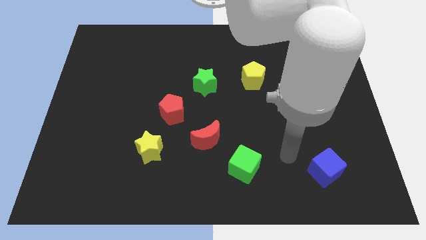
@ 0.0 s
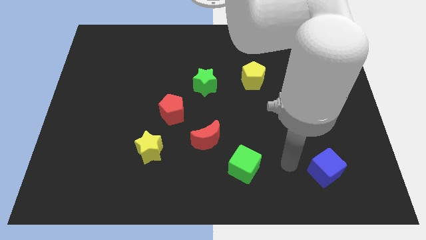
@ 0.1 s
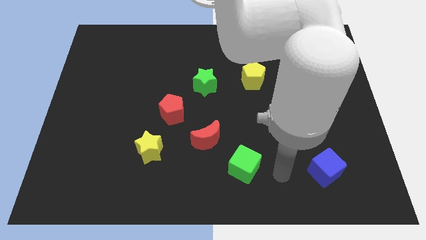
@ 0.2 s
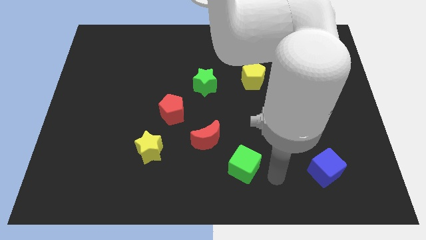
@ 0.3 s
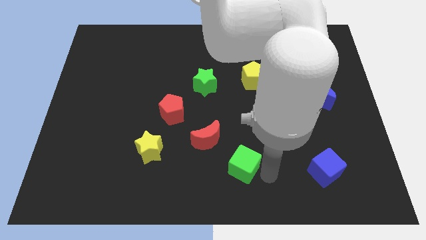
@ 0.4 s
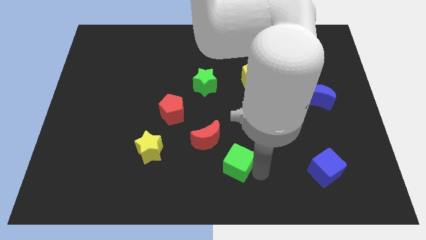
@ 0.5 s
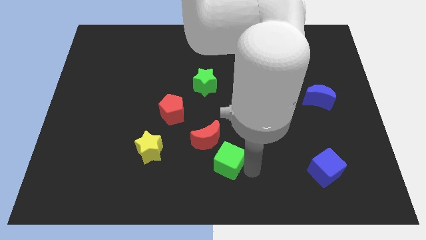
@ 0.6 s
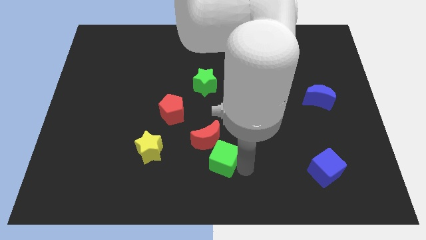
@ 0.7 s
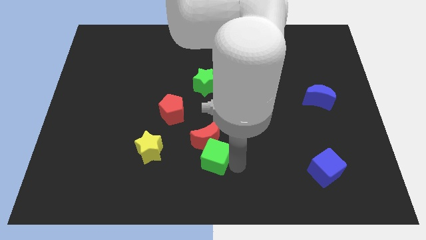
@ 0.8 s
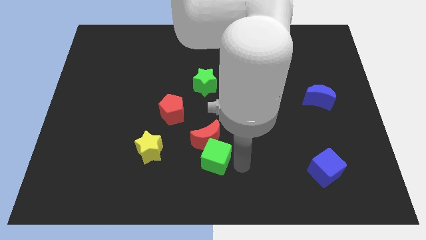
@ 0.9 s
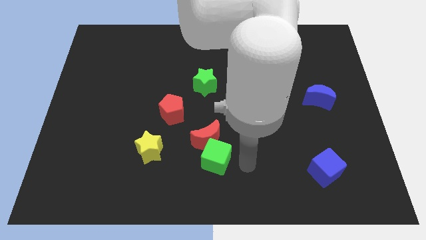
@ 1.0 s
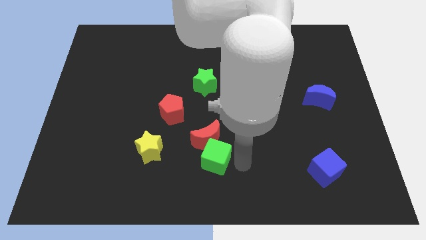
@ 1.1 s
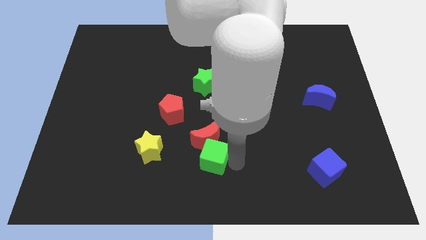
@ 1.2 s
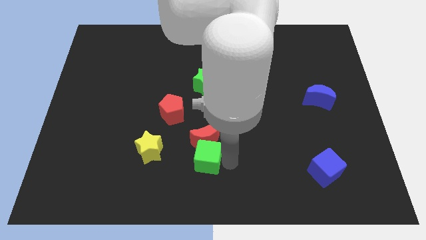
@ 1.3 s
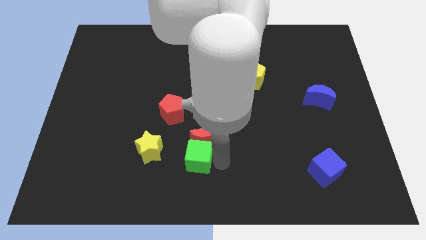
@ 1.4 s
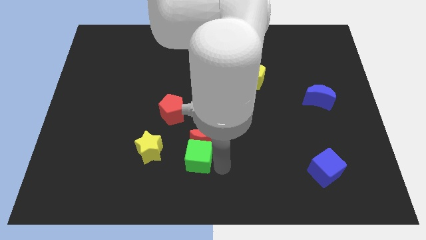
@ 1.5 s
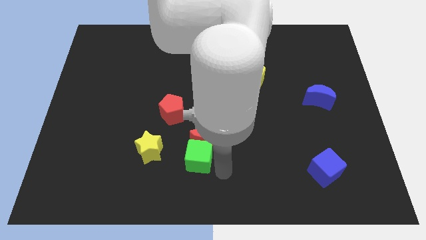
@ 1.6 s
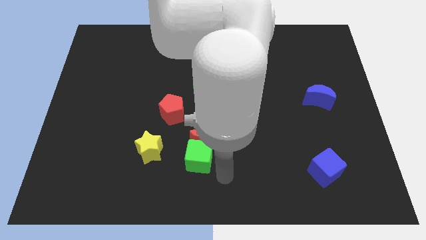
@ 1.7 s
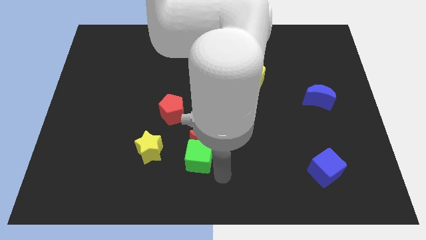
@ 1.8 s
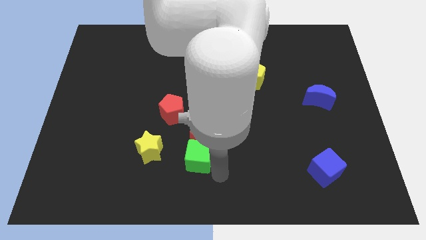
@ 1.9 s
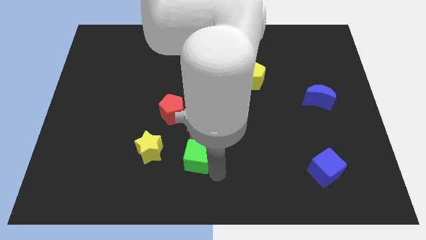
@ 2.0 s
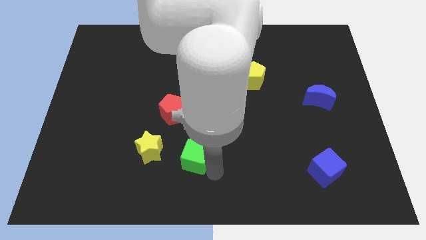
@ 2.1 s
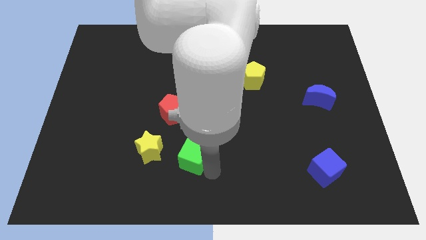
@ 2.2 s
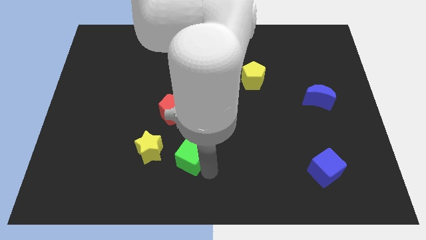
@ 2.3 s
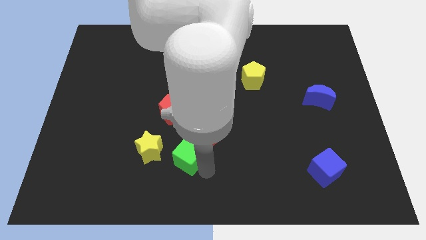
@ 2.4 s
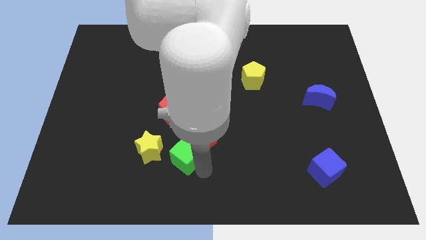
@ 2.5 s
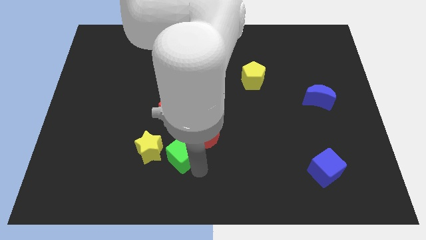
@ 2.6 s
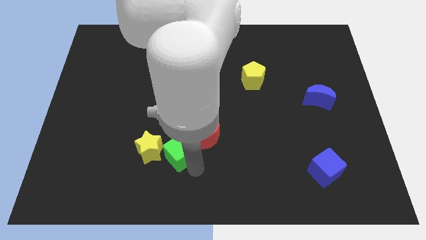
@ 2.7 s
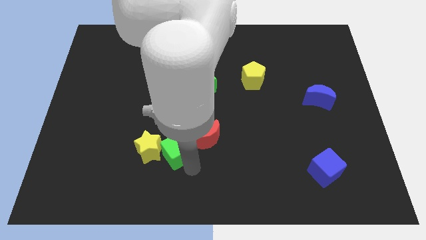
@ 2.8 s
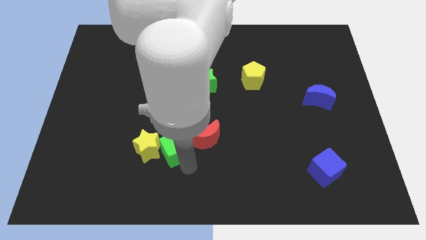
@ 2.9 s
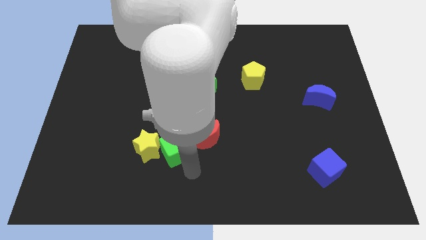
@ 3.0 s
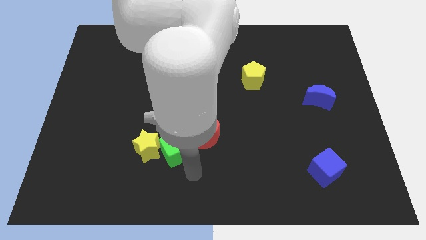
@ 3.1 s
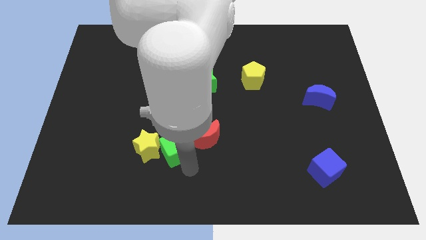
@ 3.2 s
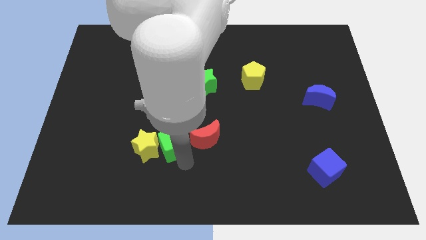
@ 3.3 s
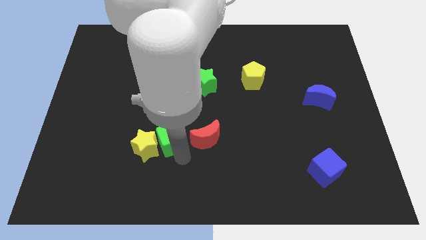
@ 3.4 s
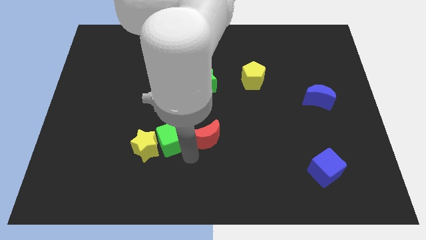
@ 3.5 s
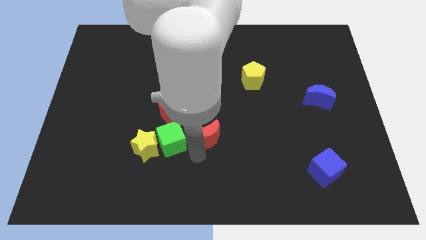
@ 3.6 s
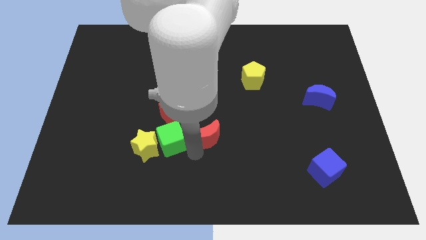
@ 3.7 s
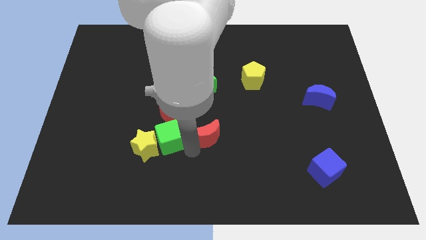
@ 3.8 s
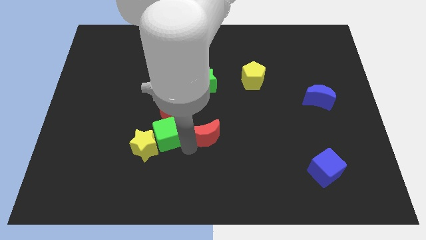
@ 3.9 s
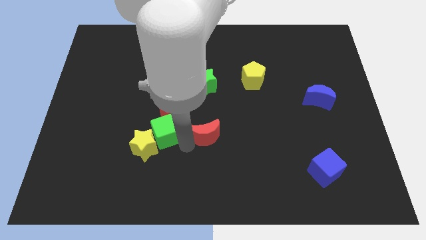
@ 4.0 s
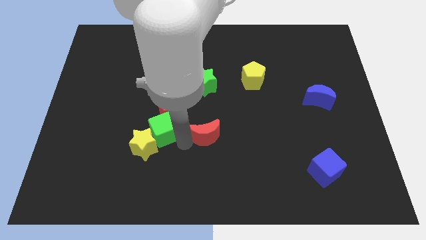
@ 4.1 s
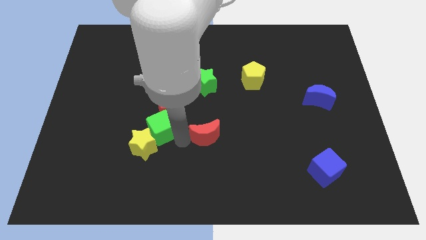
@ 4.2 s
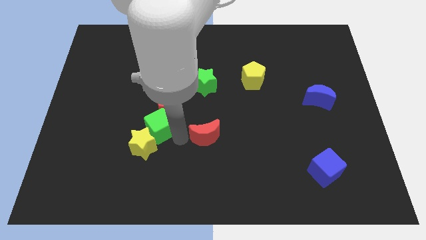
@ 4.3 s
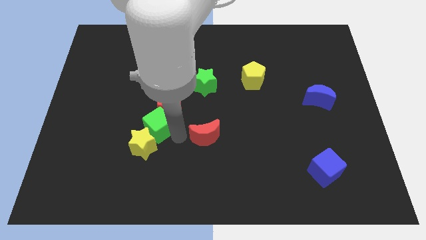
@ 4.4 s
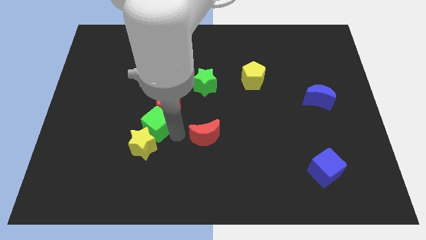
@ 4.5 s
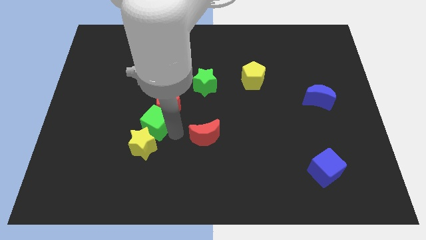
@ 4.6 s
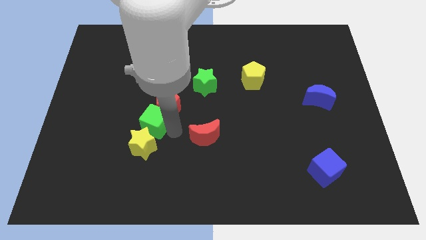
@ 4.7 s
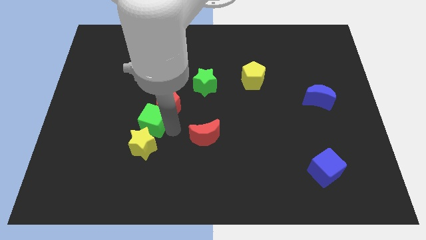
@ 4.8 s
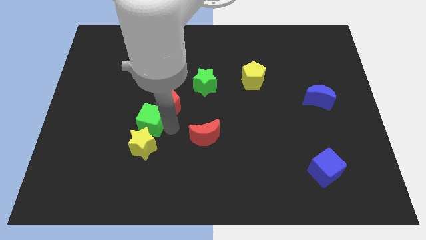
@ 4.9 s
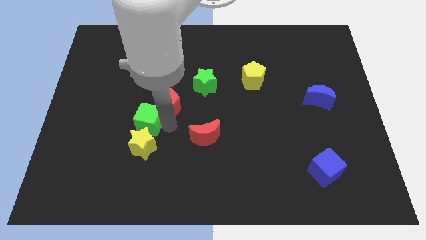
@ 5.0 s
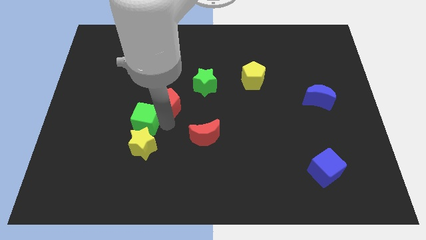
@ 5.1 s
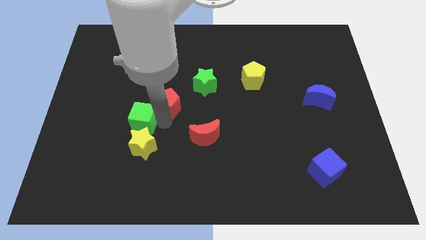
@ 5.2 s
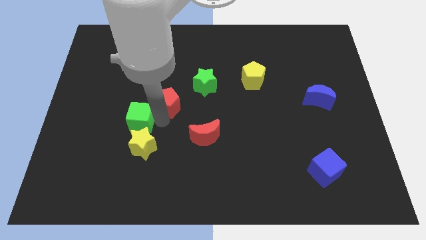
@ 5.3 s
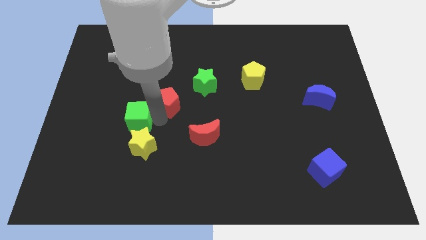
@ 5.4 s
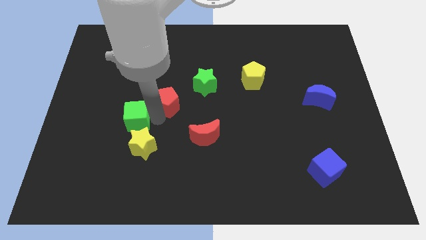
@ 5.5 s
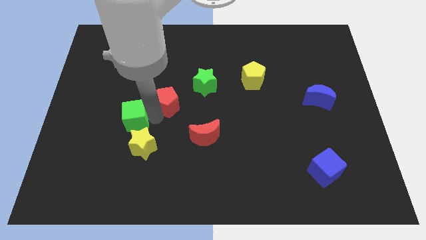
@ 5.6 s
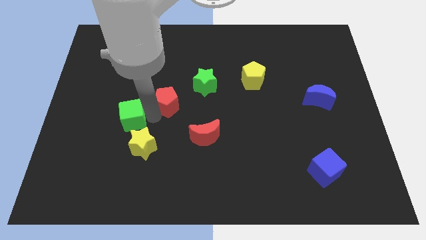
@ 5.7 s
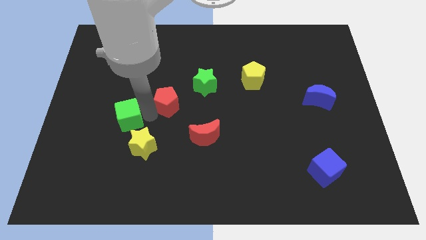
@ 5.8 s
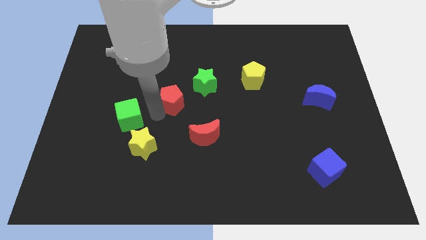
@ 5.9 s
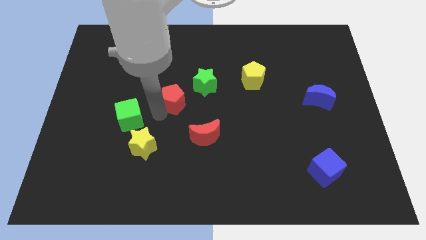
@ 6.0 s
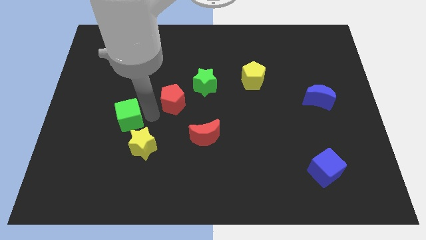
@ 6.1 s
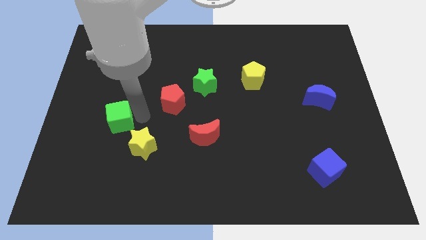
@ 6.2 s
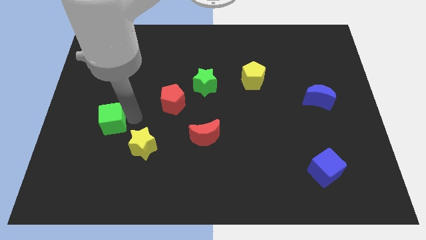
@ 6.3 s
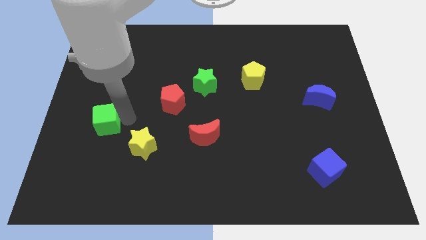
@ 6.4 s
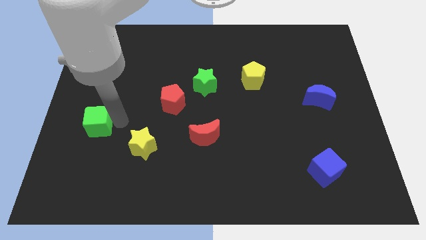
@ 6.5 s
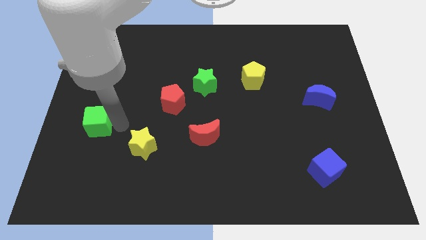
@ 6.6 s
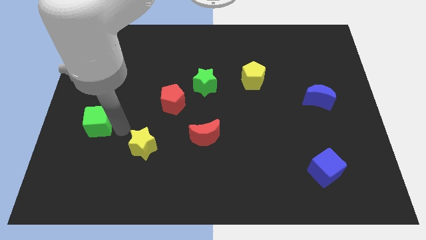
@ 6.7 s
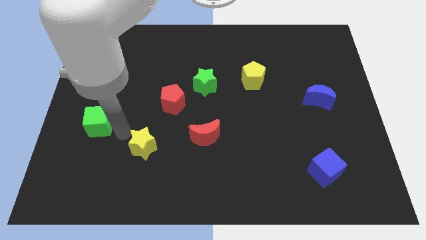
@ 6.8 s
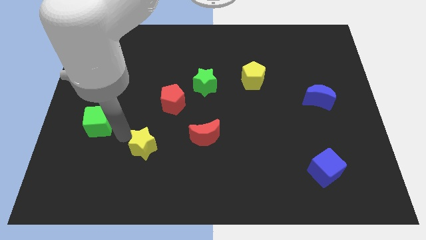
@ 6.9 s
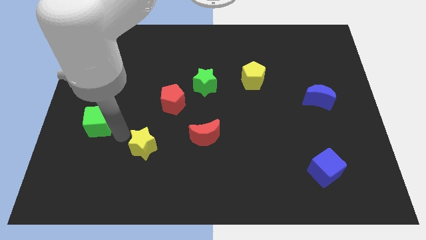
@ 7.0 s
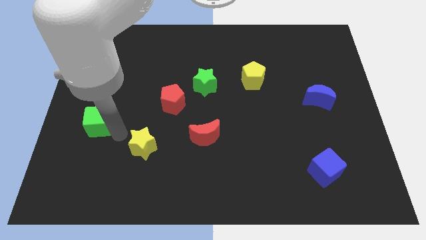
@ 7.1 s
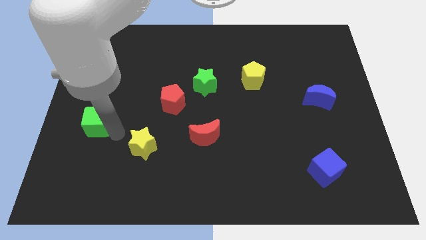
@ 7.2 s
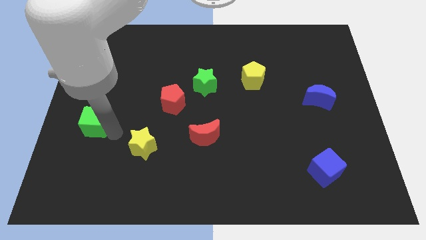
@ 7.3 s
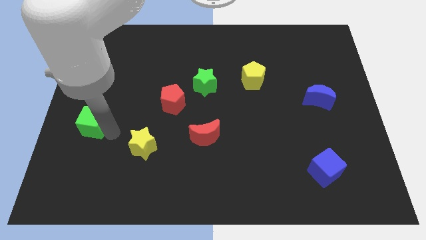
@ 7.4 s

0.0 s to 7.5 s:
push the green cube to the left side
